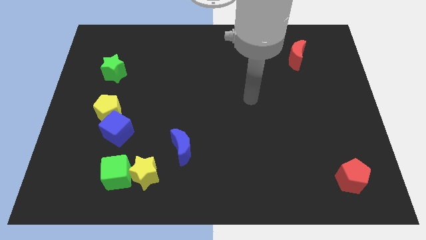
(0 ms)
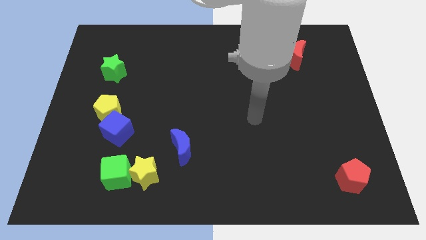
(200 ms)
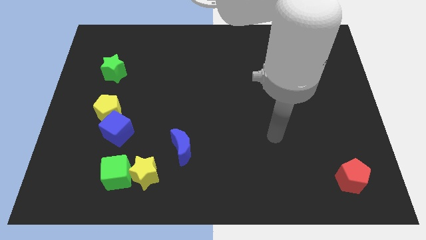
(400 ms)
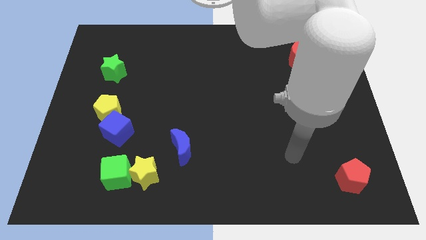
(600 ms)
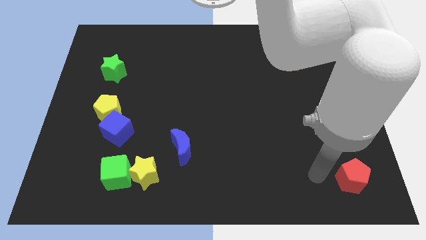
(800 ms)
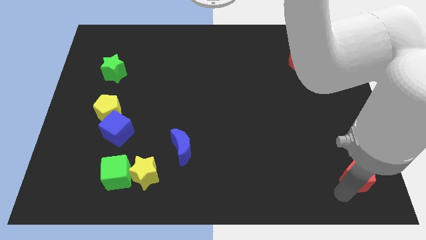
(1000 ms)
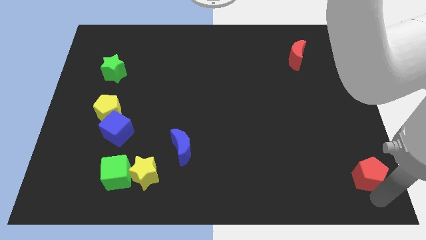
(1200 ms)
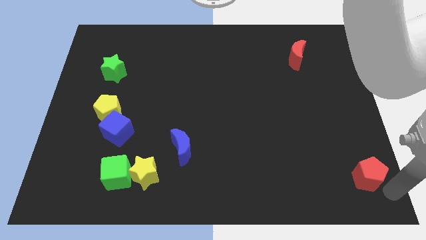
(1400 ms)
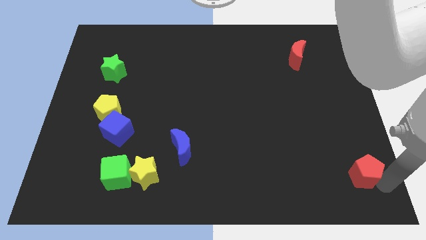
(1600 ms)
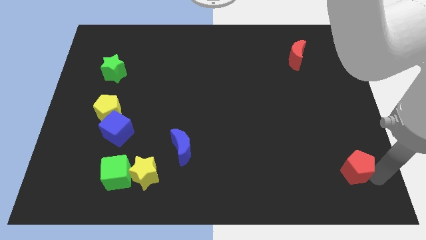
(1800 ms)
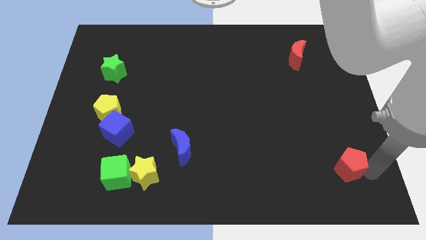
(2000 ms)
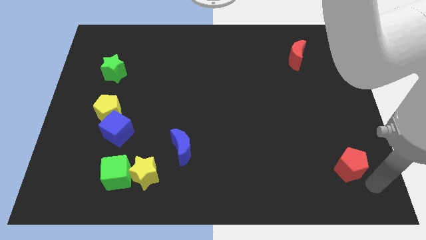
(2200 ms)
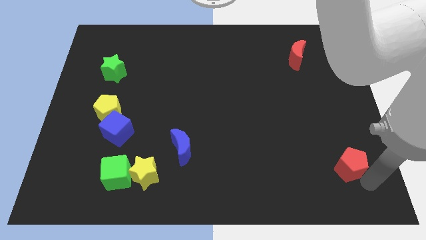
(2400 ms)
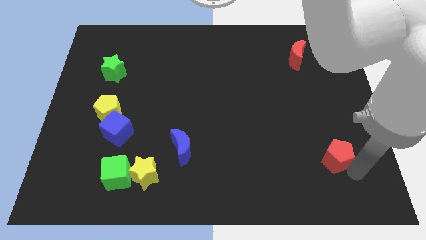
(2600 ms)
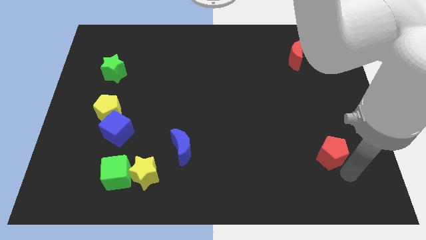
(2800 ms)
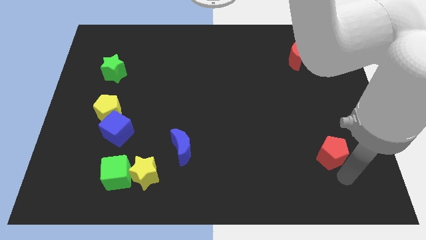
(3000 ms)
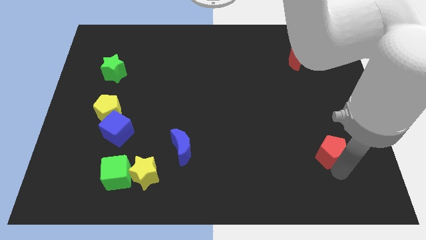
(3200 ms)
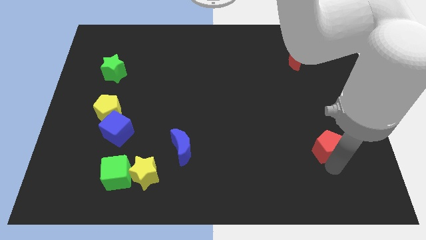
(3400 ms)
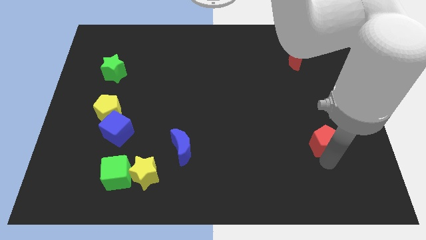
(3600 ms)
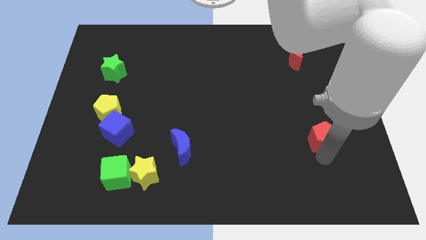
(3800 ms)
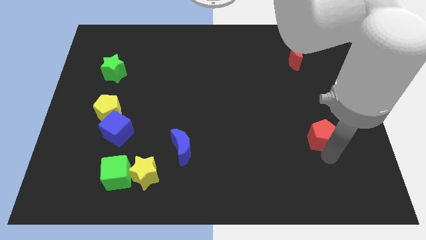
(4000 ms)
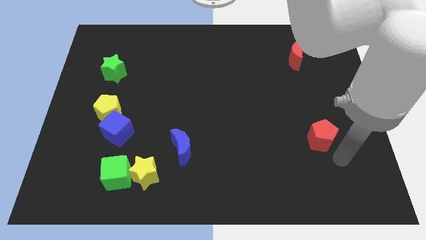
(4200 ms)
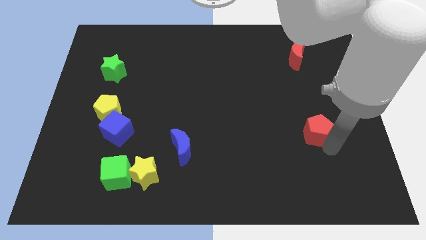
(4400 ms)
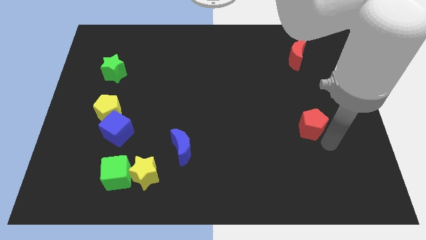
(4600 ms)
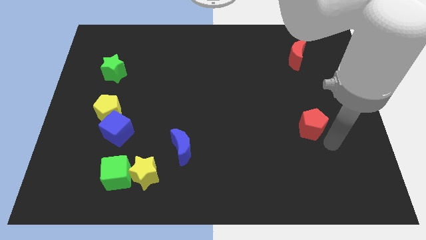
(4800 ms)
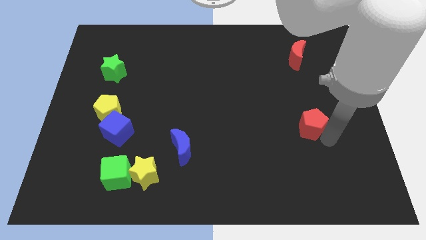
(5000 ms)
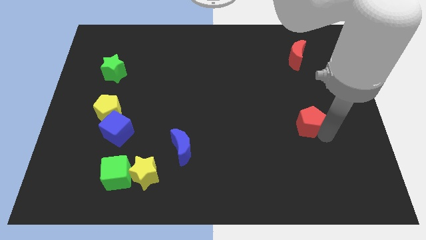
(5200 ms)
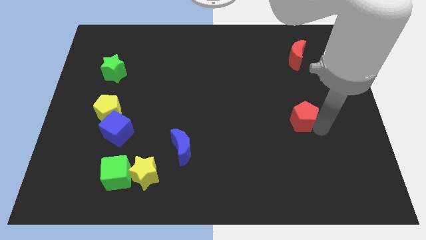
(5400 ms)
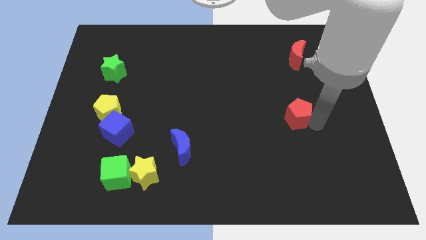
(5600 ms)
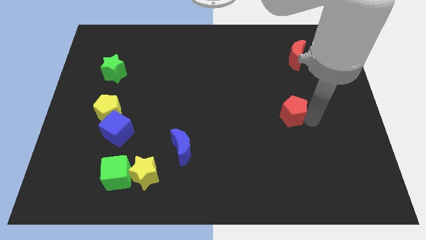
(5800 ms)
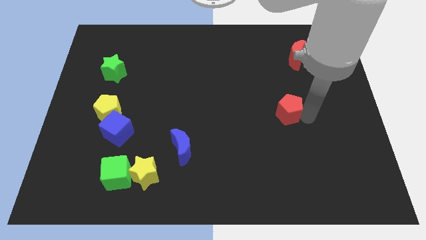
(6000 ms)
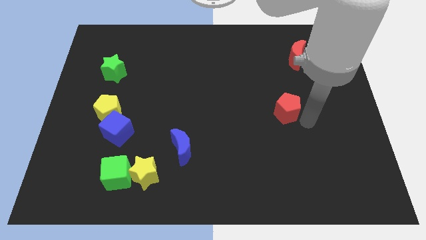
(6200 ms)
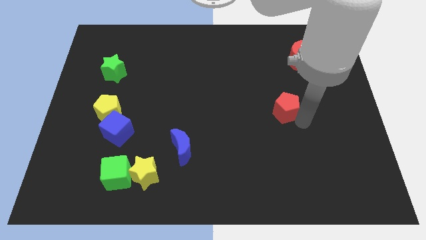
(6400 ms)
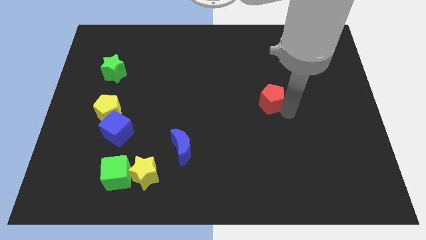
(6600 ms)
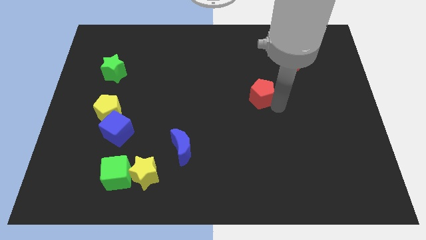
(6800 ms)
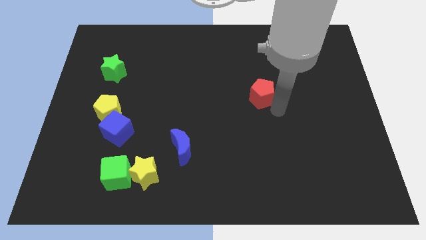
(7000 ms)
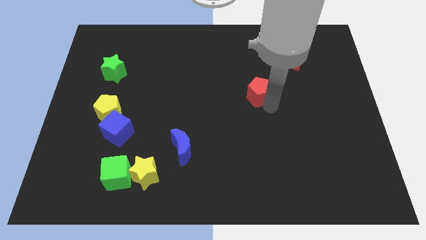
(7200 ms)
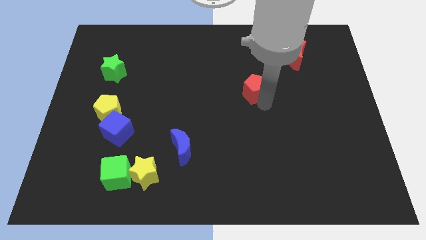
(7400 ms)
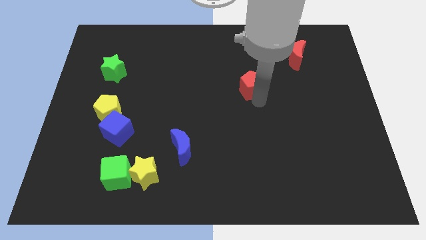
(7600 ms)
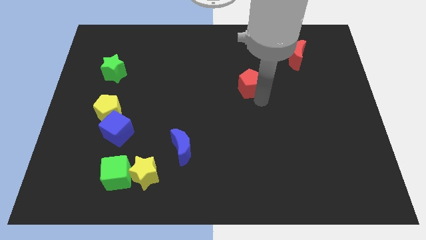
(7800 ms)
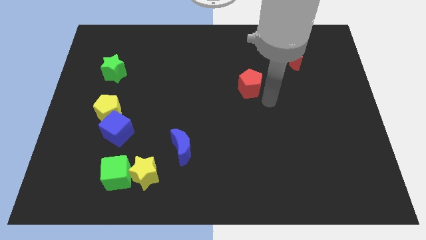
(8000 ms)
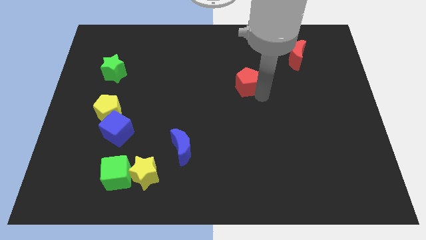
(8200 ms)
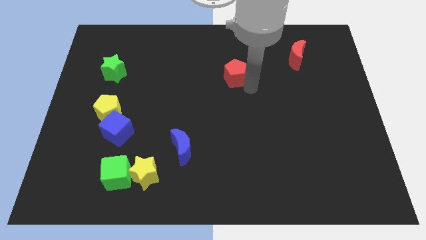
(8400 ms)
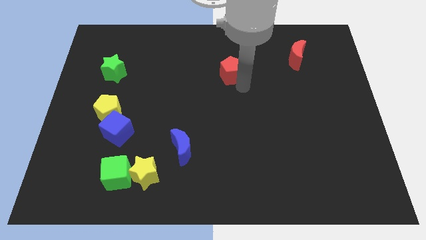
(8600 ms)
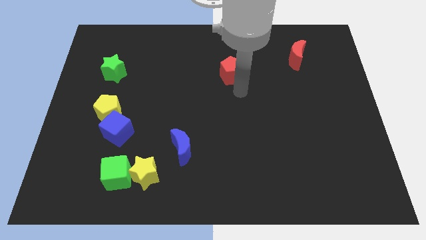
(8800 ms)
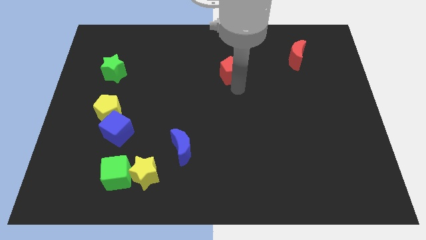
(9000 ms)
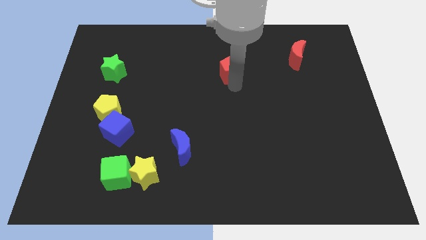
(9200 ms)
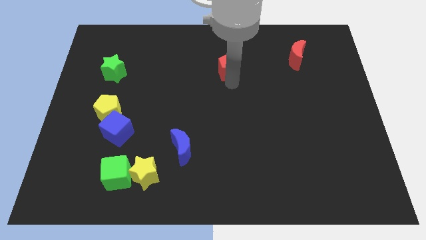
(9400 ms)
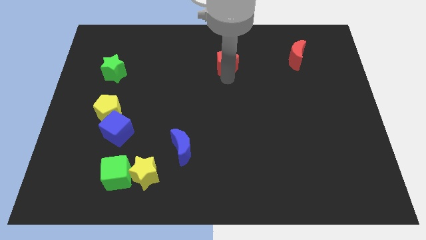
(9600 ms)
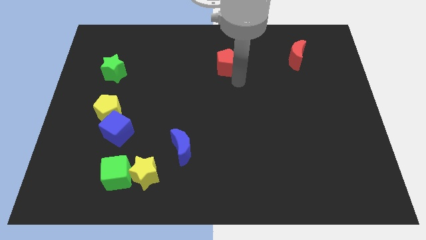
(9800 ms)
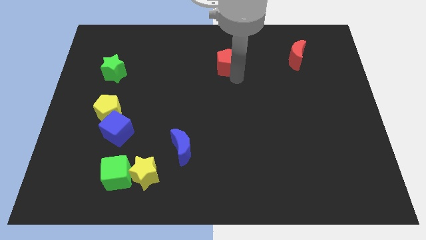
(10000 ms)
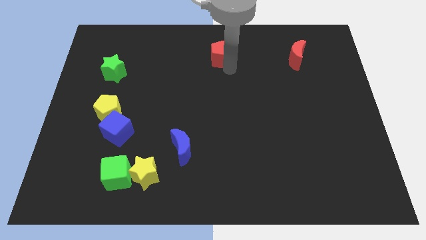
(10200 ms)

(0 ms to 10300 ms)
push the red pentagon to the towards your base

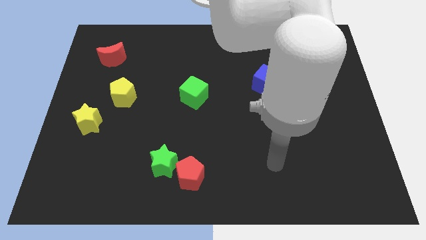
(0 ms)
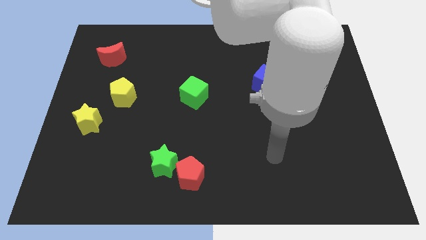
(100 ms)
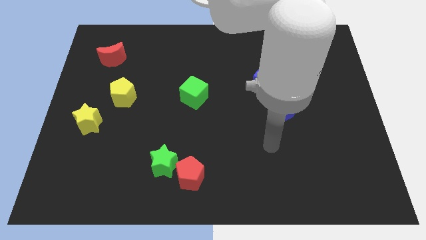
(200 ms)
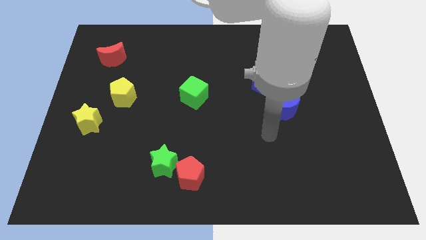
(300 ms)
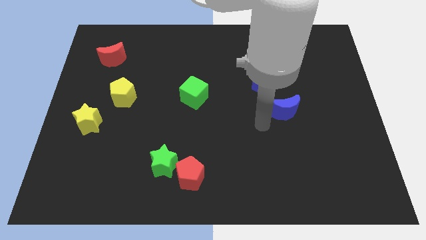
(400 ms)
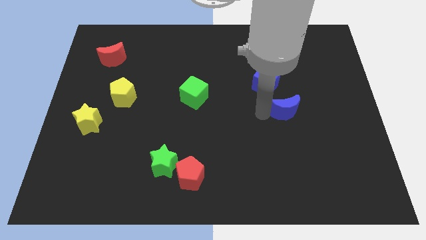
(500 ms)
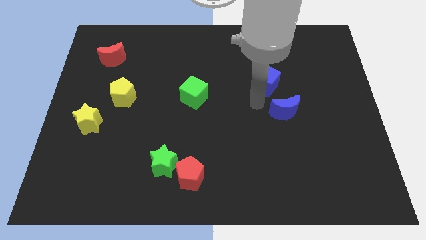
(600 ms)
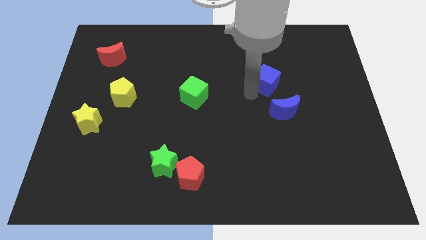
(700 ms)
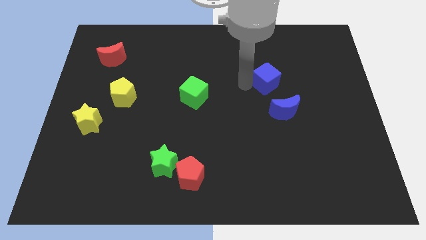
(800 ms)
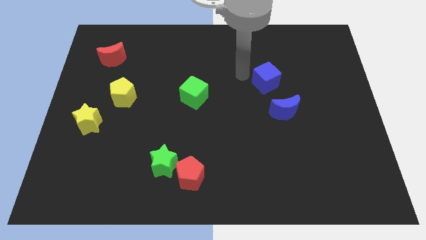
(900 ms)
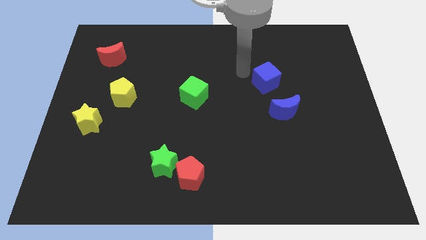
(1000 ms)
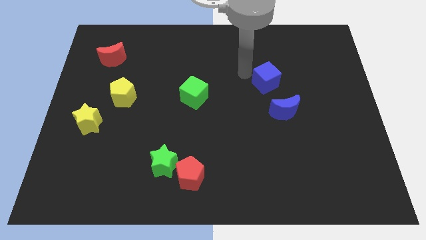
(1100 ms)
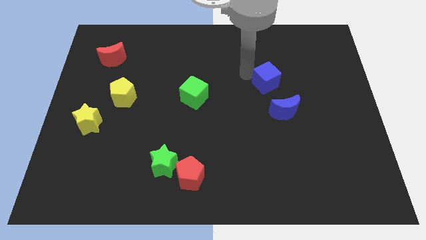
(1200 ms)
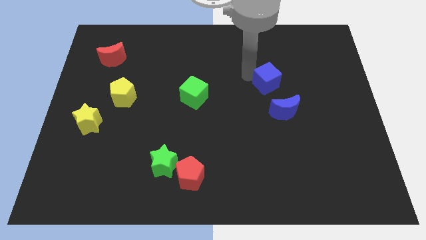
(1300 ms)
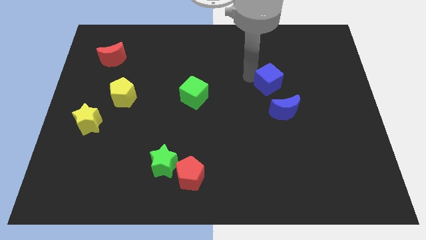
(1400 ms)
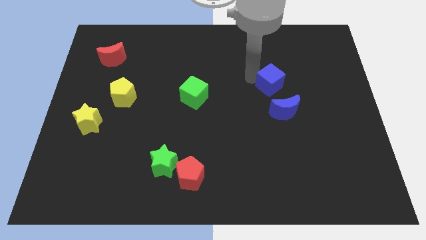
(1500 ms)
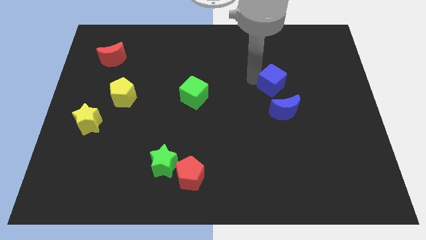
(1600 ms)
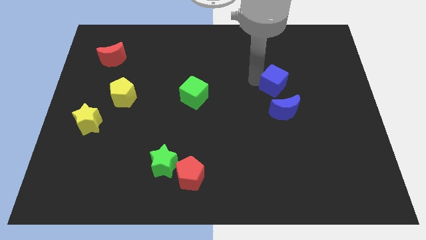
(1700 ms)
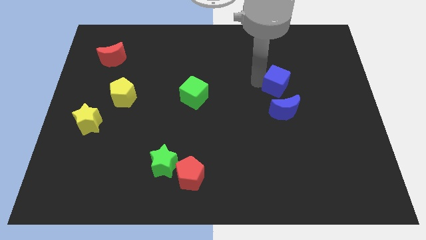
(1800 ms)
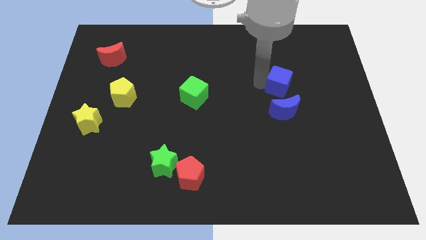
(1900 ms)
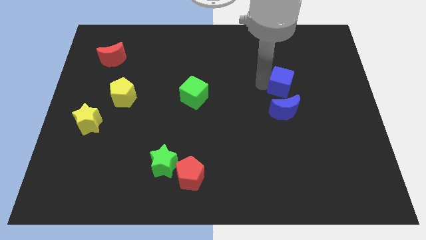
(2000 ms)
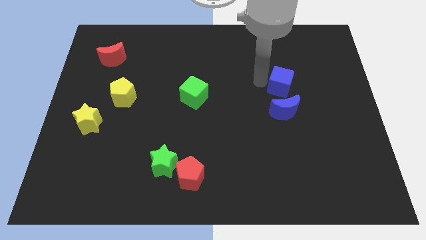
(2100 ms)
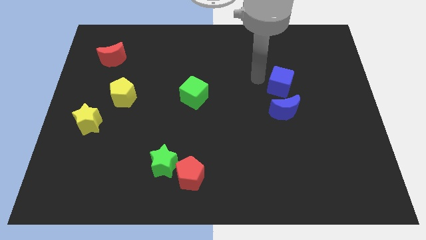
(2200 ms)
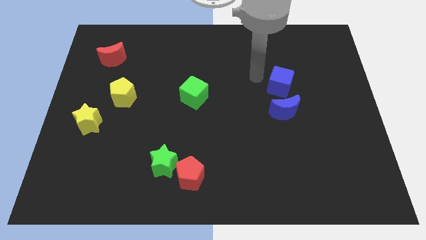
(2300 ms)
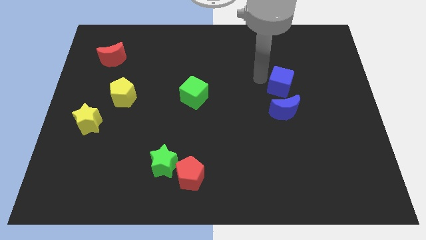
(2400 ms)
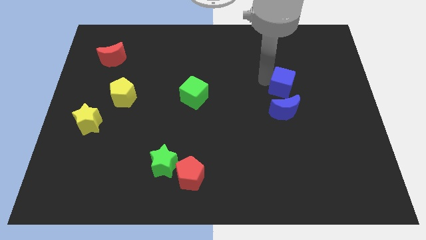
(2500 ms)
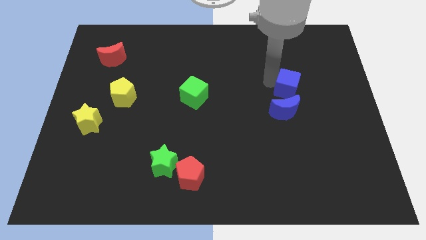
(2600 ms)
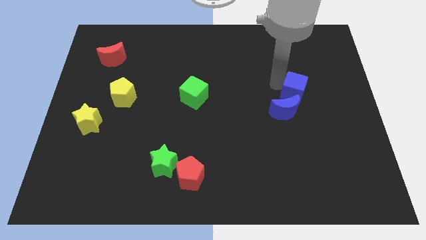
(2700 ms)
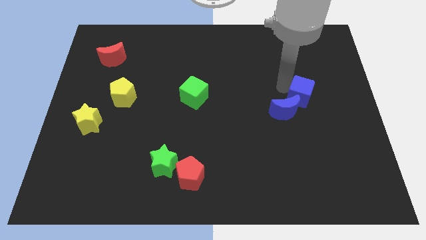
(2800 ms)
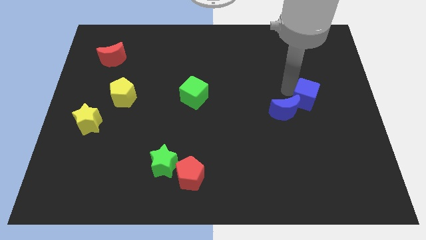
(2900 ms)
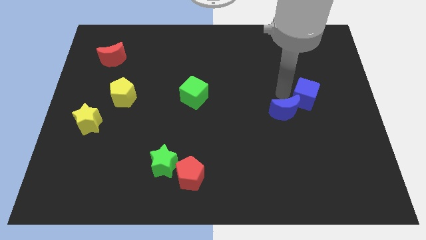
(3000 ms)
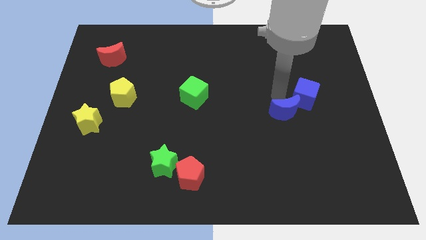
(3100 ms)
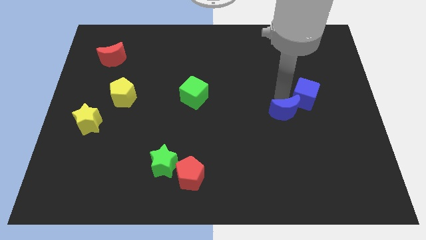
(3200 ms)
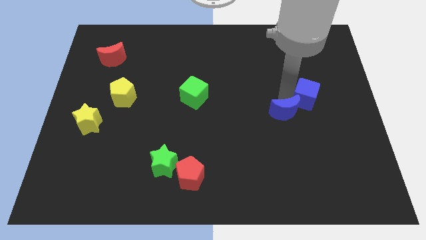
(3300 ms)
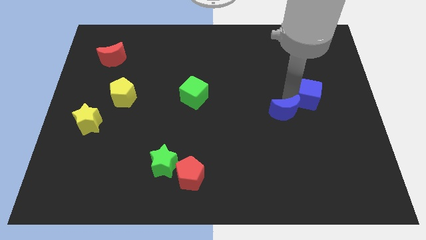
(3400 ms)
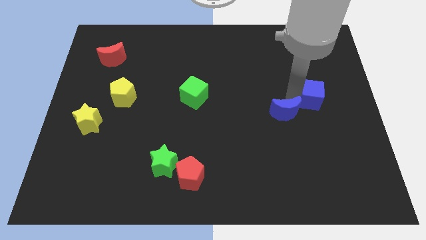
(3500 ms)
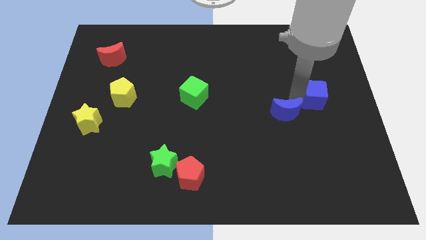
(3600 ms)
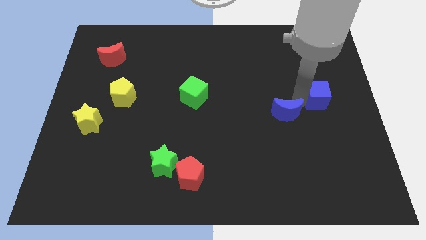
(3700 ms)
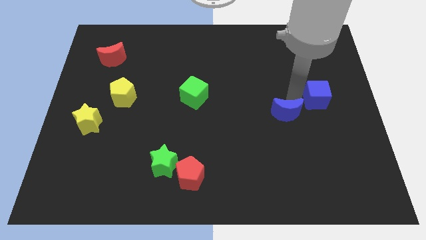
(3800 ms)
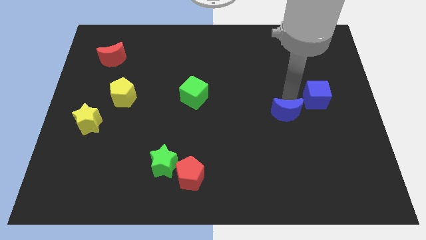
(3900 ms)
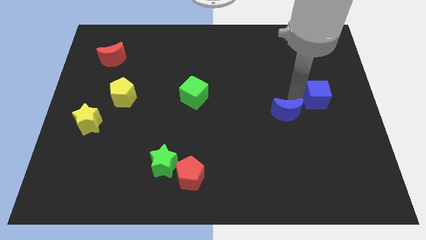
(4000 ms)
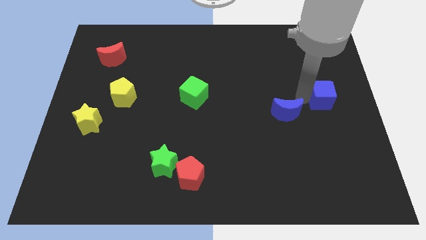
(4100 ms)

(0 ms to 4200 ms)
slide the blue cube to the right side
